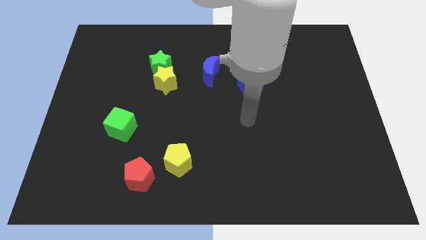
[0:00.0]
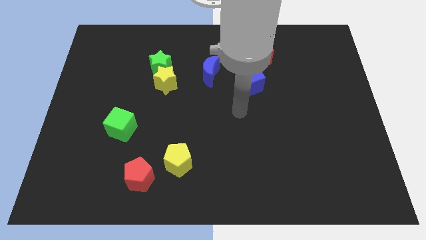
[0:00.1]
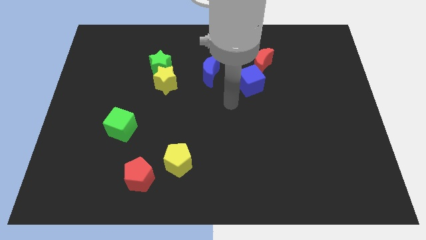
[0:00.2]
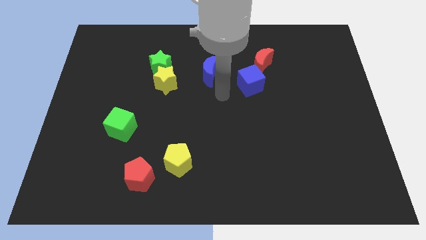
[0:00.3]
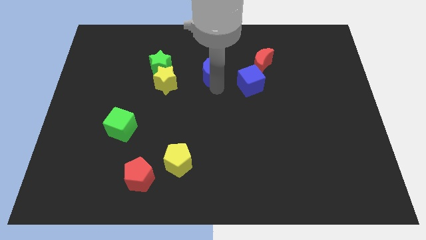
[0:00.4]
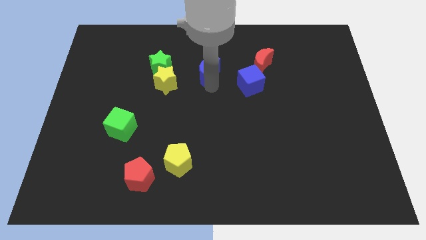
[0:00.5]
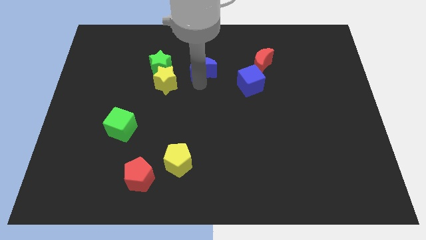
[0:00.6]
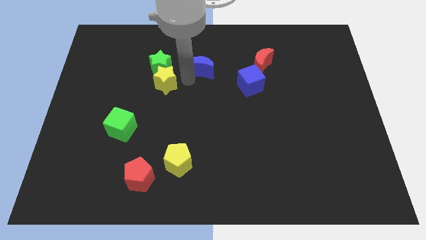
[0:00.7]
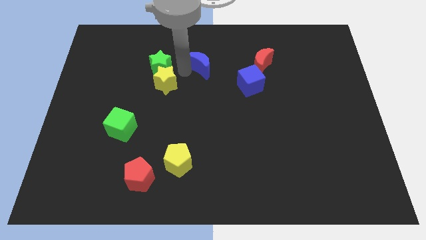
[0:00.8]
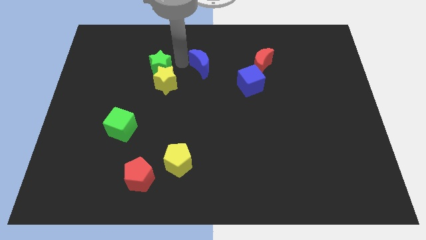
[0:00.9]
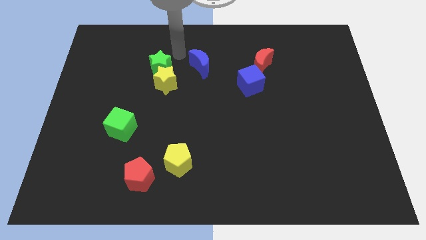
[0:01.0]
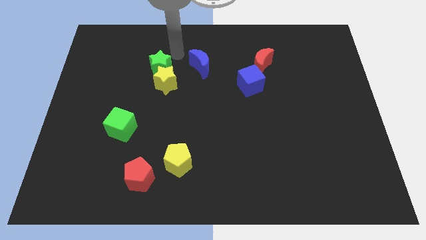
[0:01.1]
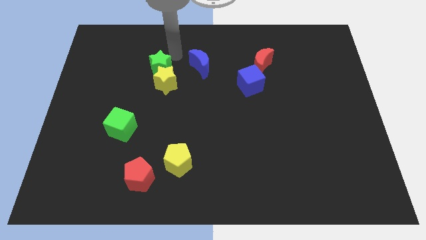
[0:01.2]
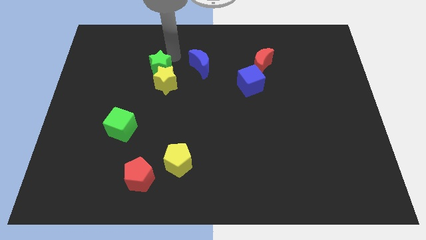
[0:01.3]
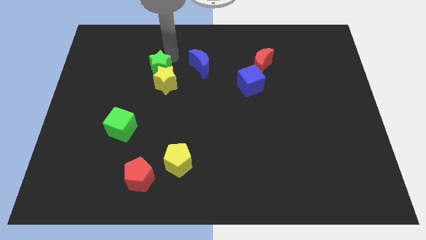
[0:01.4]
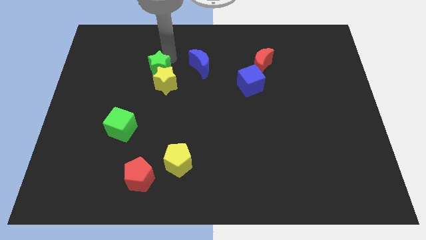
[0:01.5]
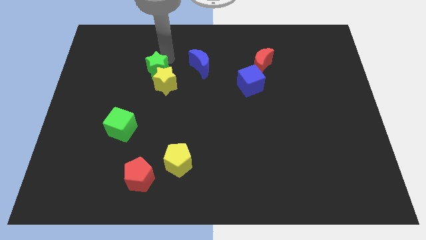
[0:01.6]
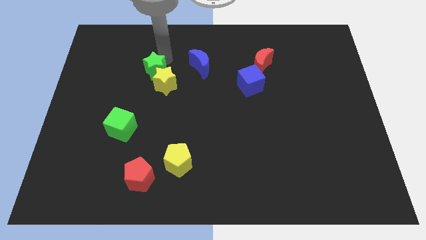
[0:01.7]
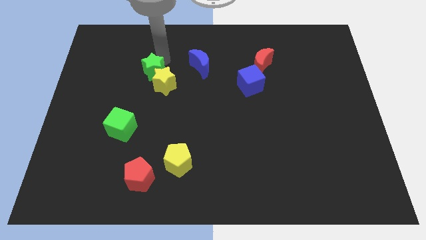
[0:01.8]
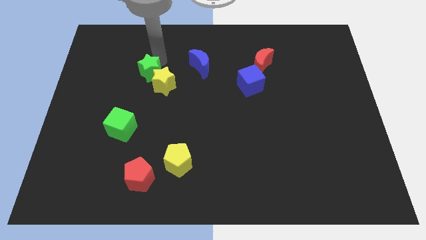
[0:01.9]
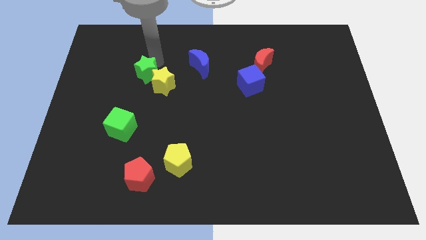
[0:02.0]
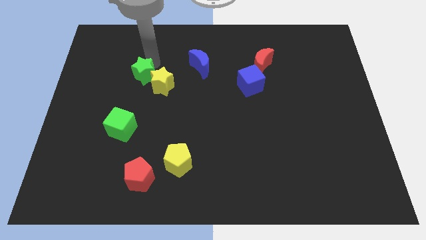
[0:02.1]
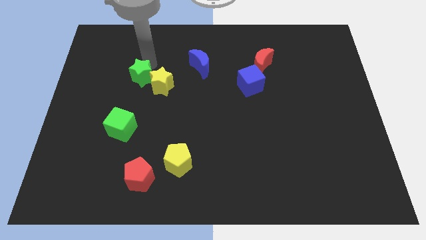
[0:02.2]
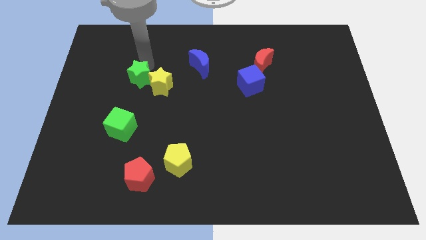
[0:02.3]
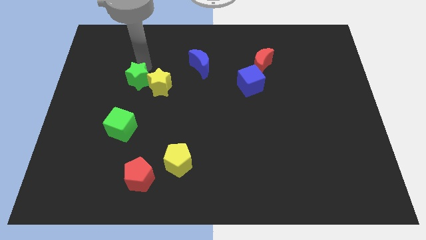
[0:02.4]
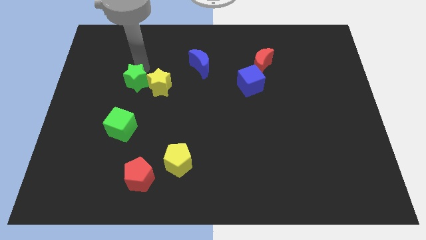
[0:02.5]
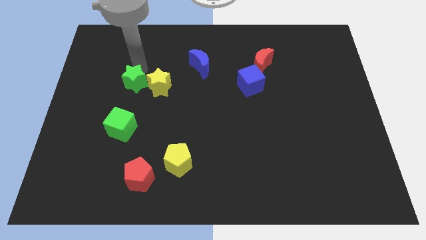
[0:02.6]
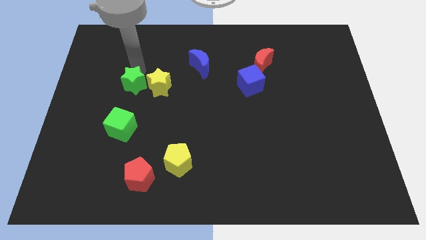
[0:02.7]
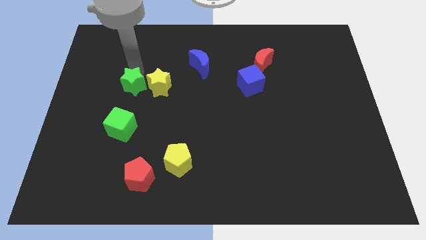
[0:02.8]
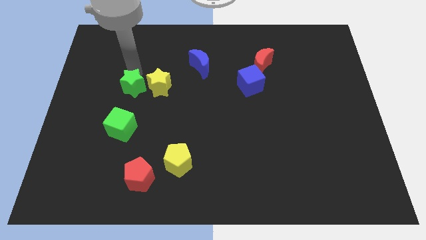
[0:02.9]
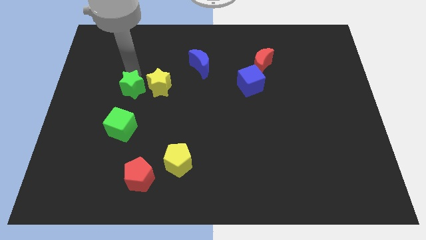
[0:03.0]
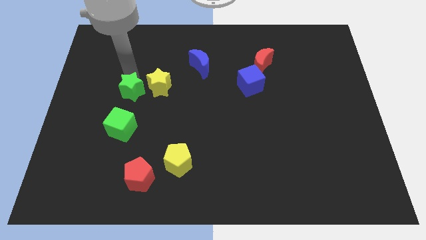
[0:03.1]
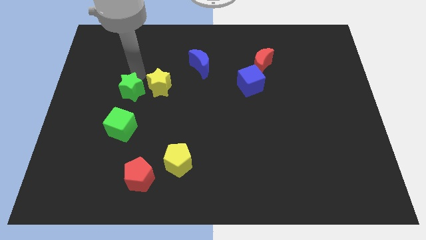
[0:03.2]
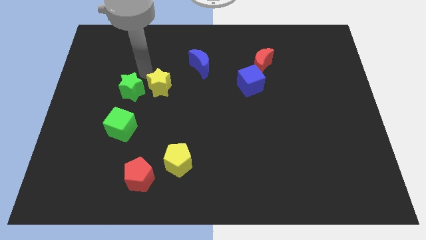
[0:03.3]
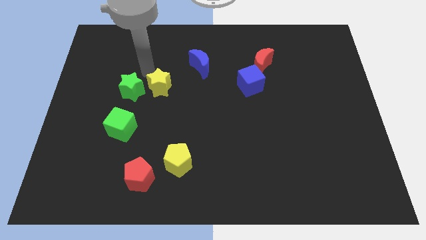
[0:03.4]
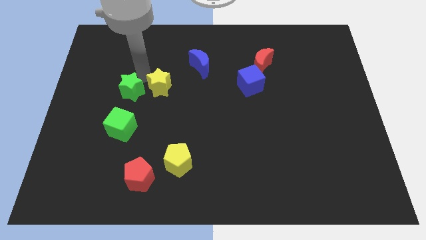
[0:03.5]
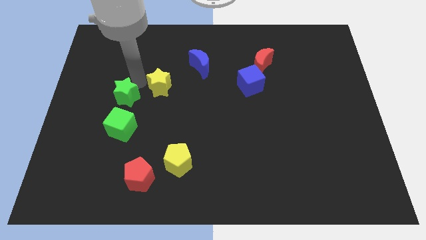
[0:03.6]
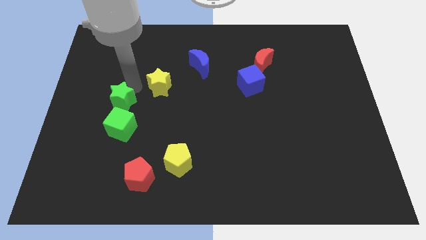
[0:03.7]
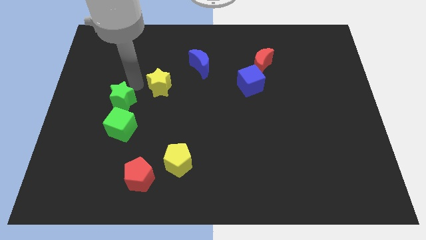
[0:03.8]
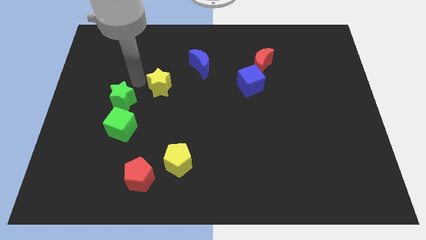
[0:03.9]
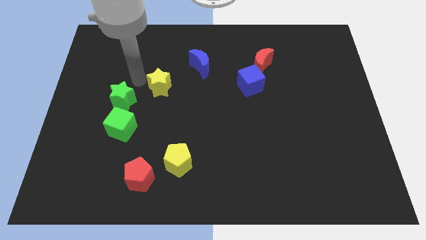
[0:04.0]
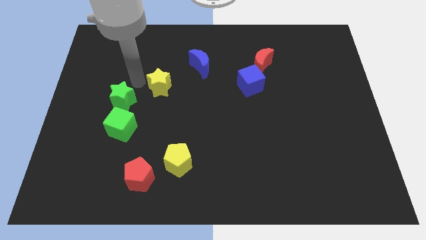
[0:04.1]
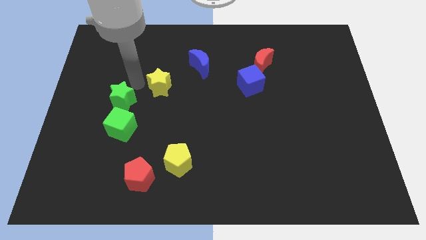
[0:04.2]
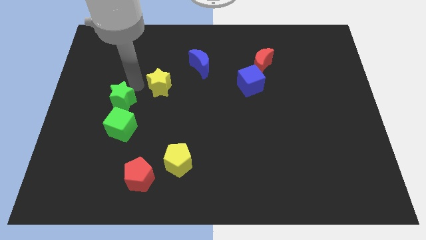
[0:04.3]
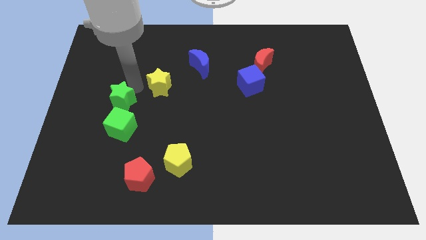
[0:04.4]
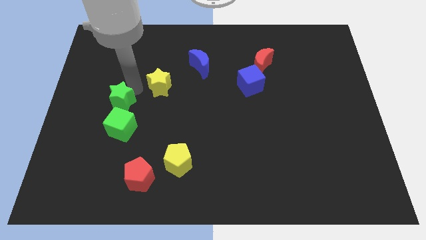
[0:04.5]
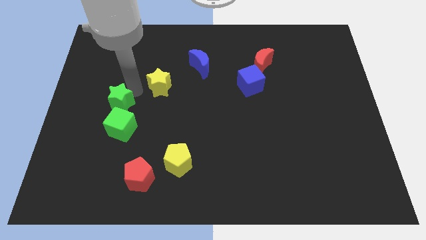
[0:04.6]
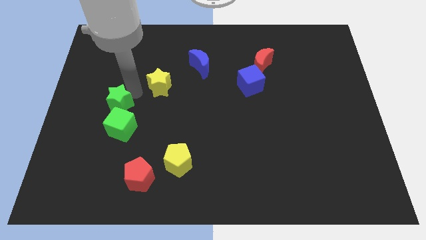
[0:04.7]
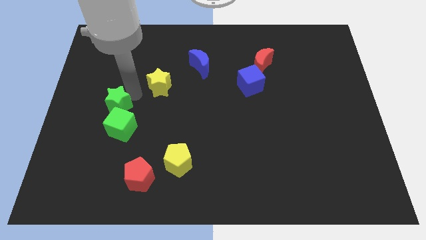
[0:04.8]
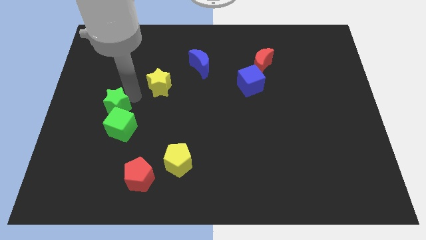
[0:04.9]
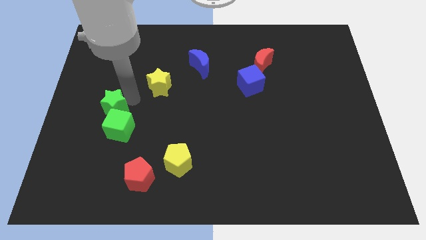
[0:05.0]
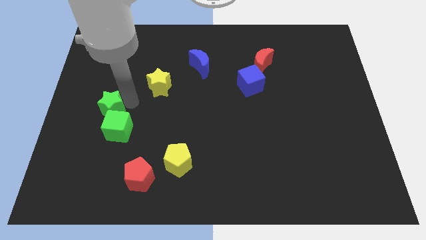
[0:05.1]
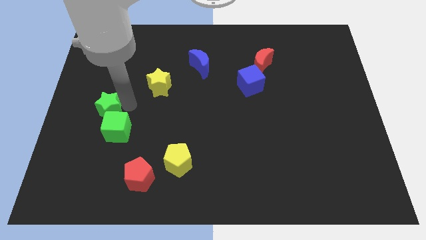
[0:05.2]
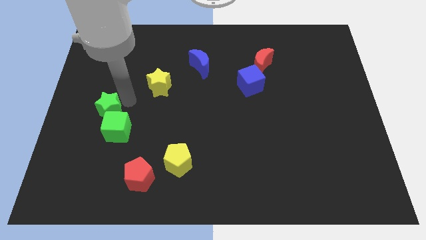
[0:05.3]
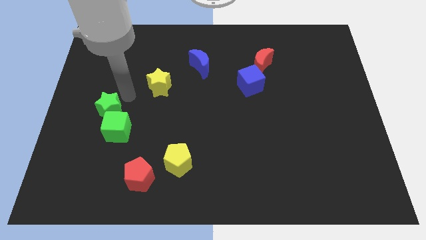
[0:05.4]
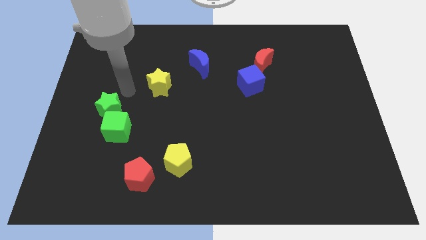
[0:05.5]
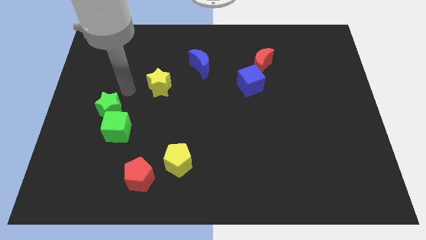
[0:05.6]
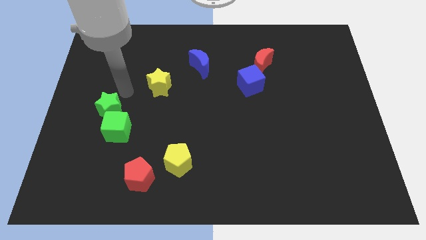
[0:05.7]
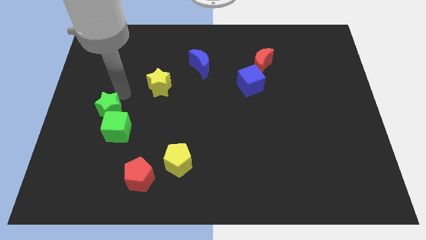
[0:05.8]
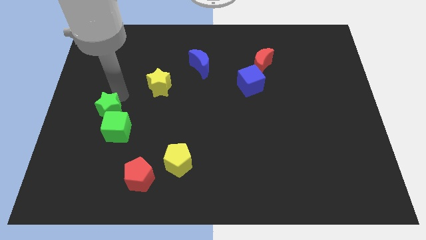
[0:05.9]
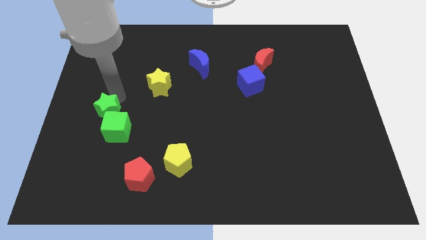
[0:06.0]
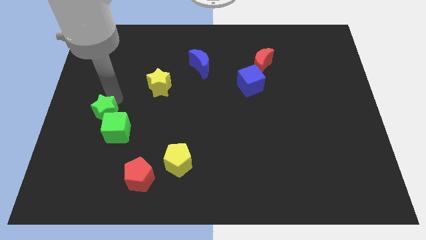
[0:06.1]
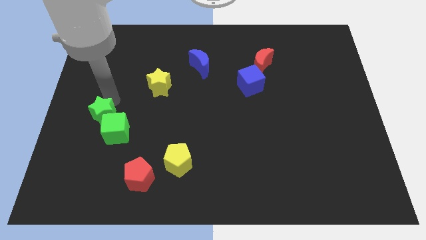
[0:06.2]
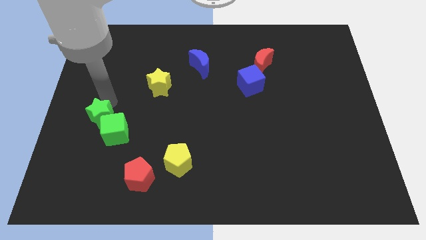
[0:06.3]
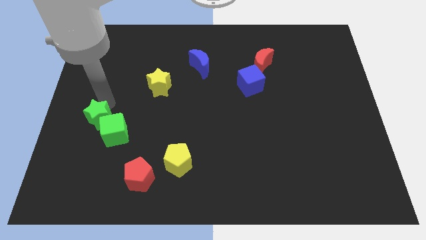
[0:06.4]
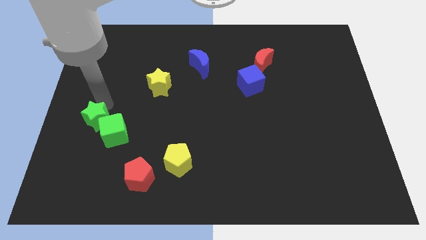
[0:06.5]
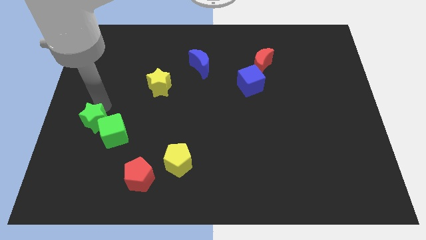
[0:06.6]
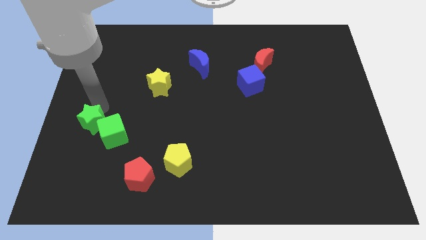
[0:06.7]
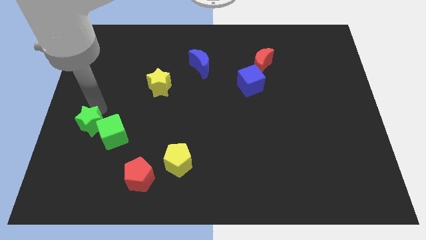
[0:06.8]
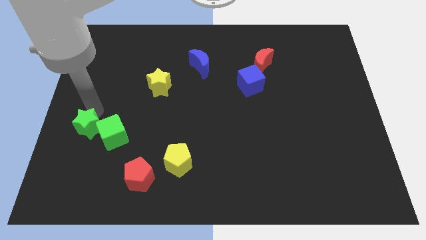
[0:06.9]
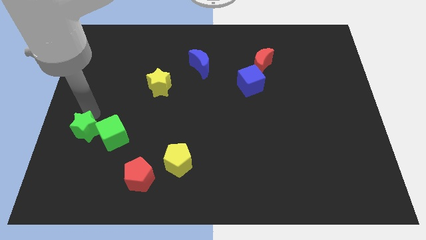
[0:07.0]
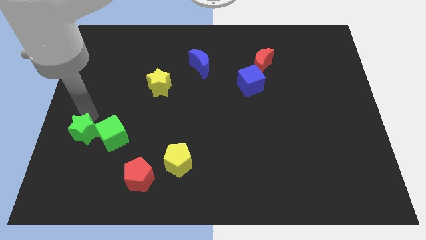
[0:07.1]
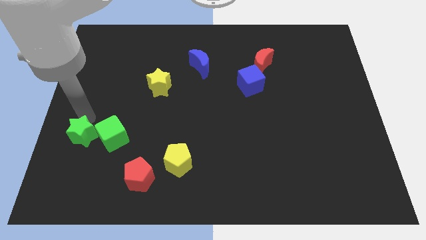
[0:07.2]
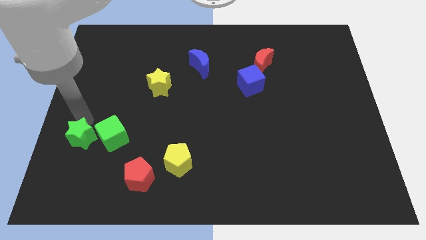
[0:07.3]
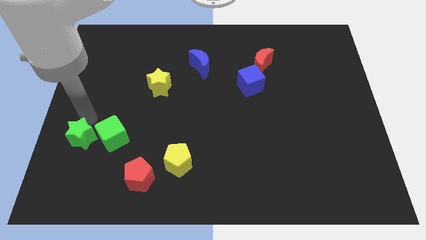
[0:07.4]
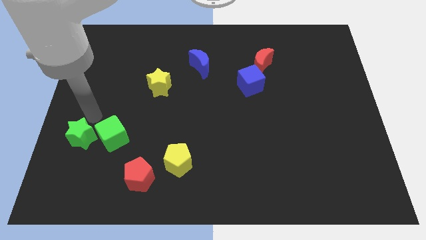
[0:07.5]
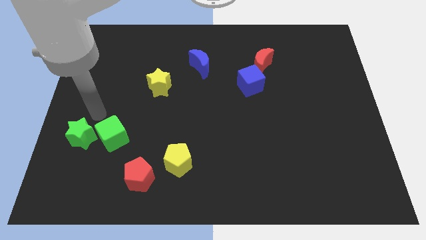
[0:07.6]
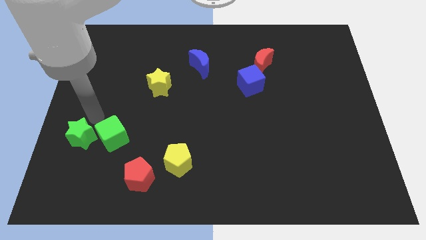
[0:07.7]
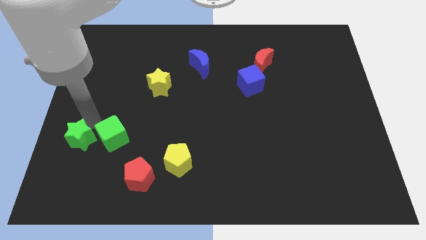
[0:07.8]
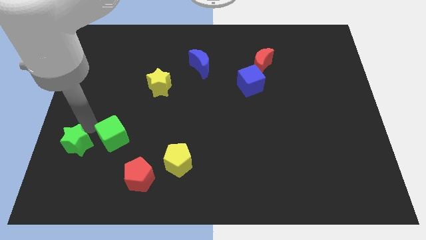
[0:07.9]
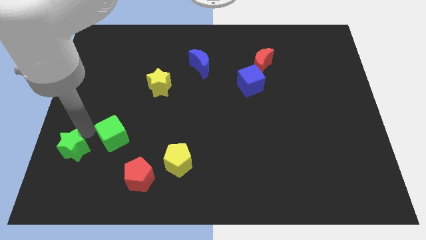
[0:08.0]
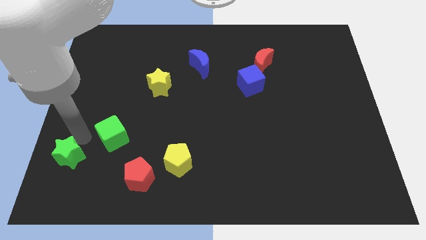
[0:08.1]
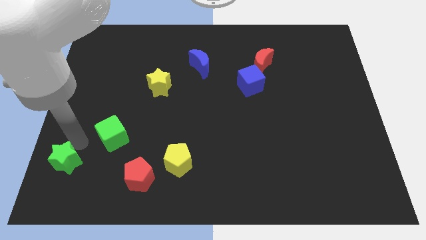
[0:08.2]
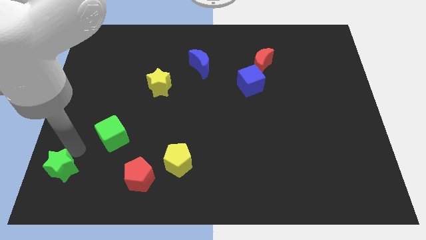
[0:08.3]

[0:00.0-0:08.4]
move the green star to the bottom left corner
